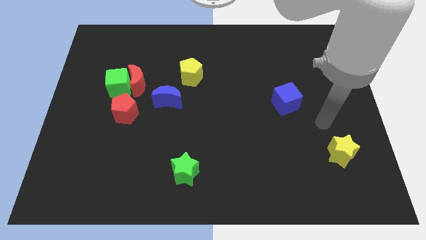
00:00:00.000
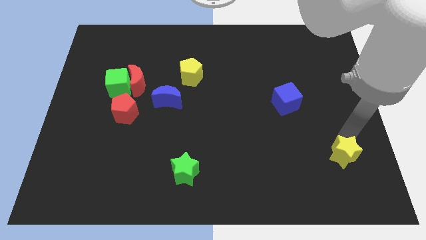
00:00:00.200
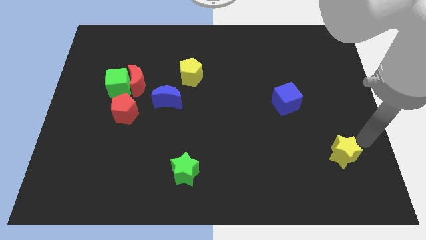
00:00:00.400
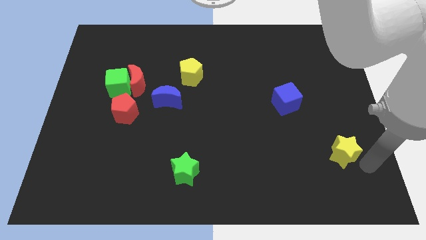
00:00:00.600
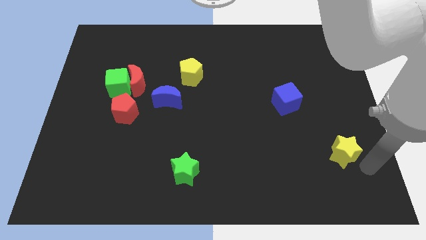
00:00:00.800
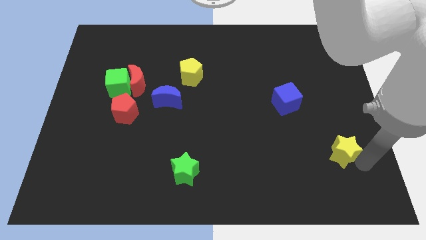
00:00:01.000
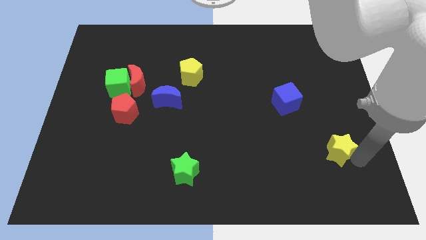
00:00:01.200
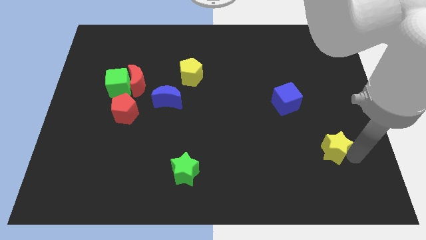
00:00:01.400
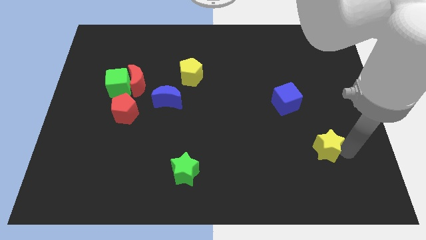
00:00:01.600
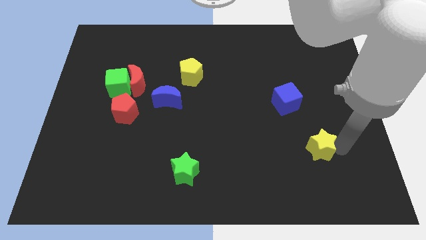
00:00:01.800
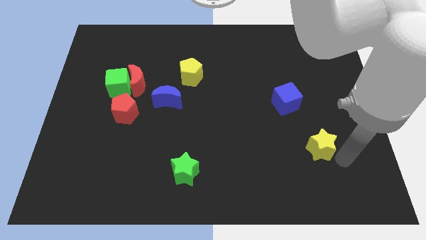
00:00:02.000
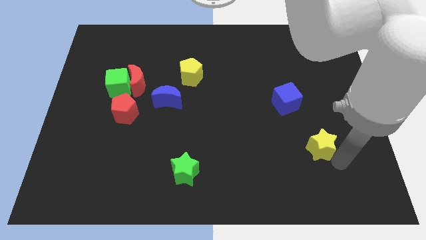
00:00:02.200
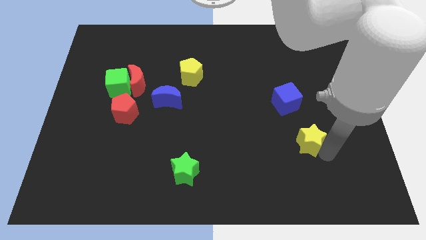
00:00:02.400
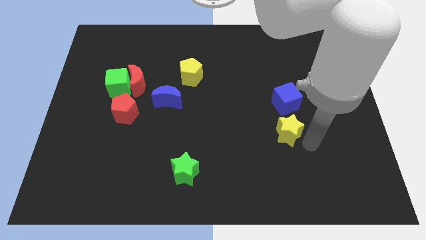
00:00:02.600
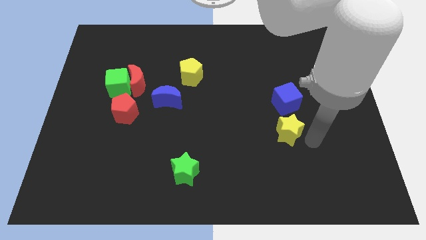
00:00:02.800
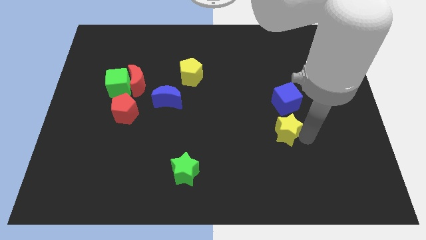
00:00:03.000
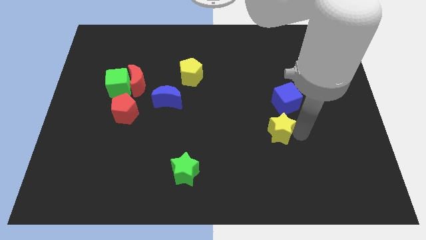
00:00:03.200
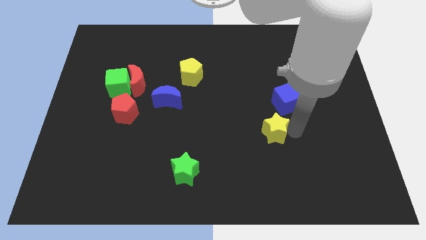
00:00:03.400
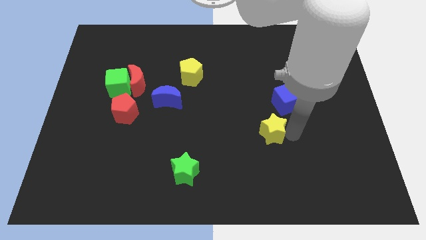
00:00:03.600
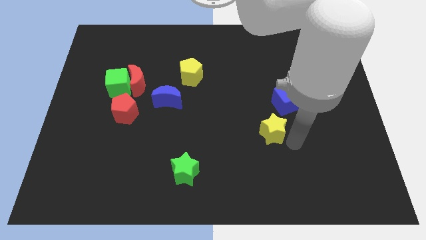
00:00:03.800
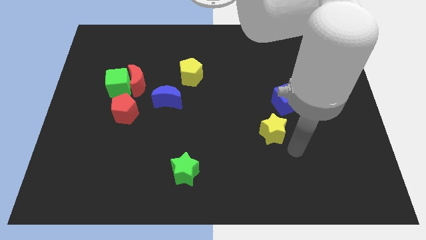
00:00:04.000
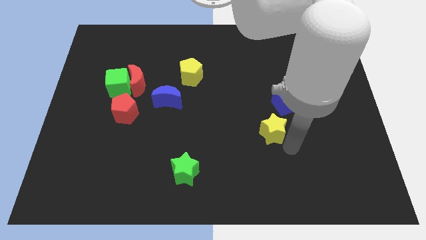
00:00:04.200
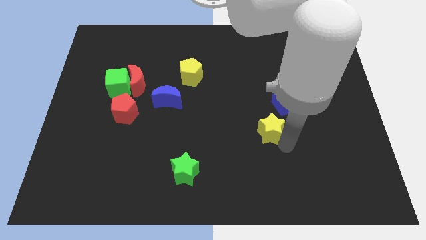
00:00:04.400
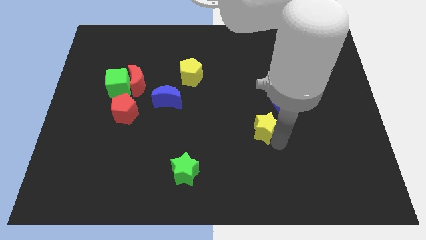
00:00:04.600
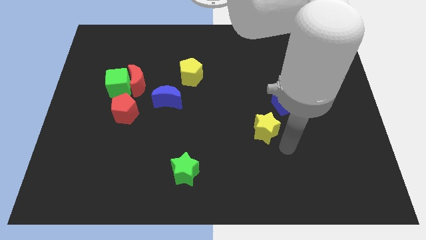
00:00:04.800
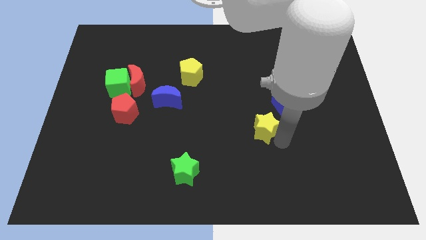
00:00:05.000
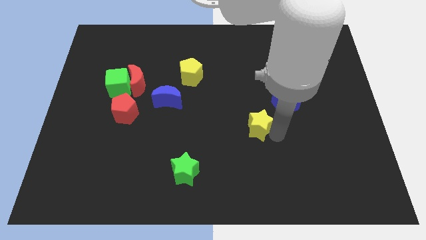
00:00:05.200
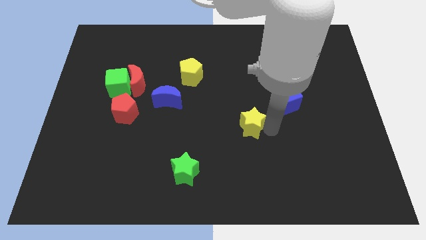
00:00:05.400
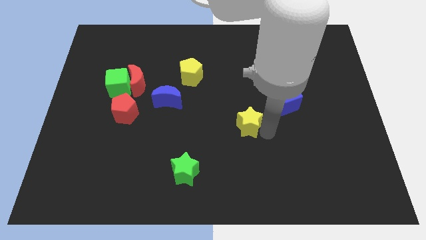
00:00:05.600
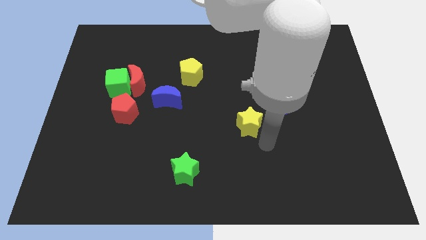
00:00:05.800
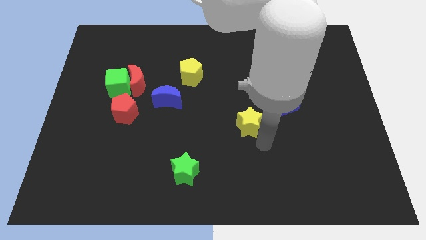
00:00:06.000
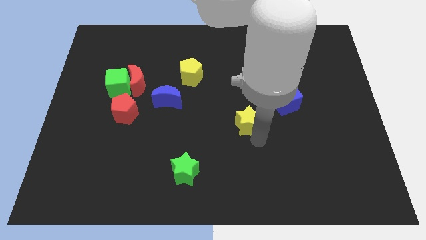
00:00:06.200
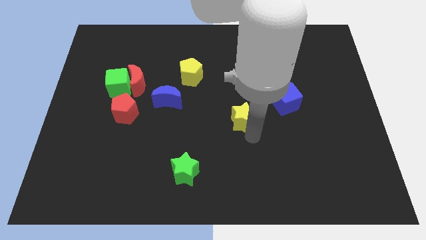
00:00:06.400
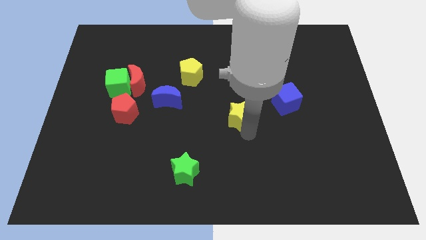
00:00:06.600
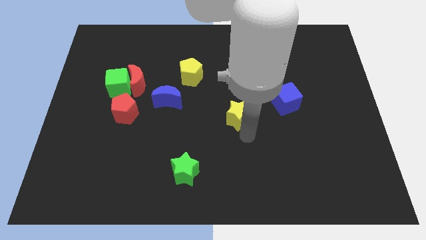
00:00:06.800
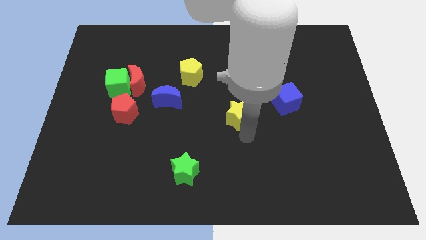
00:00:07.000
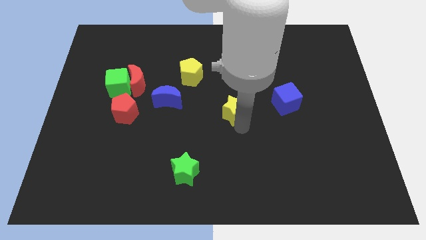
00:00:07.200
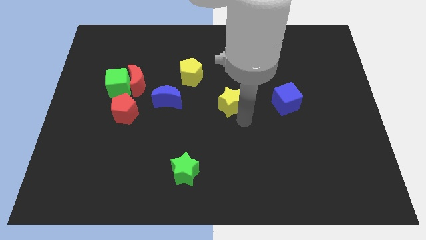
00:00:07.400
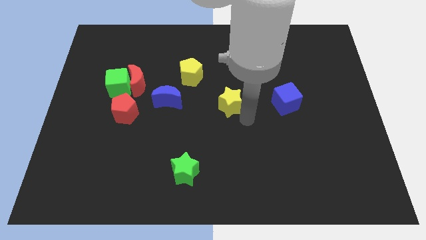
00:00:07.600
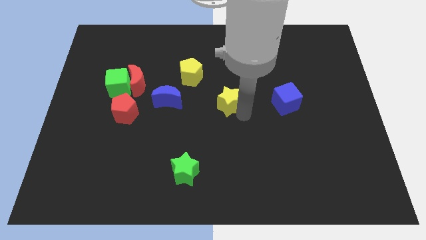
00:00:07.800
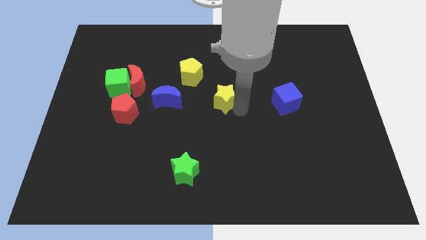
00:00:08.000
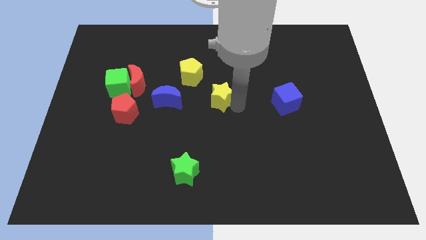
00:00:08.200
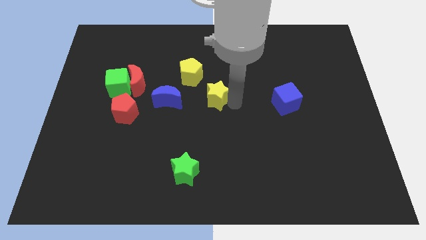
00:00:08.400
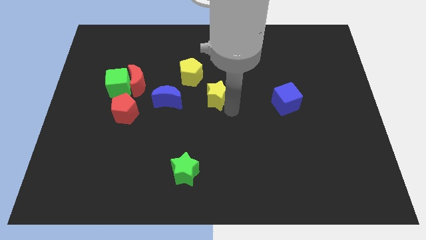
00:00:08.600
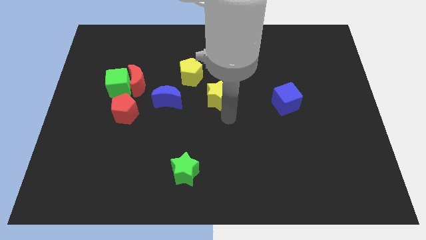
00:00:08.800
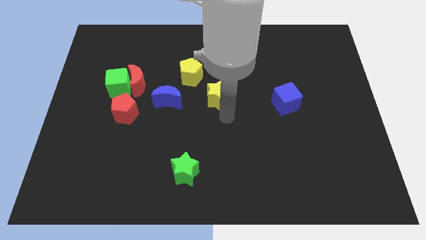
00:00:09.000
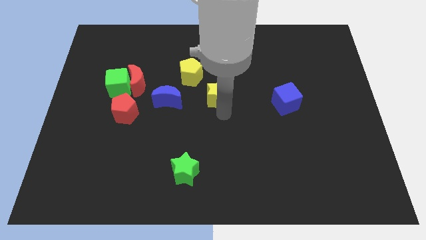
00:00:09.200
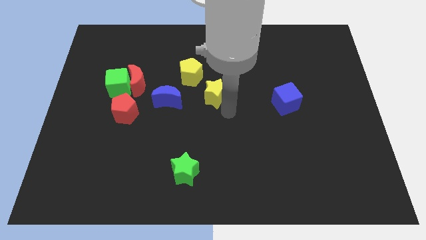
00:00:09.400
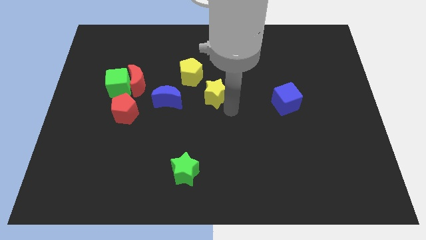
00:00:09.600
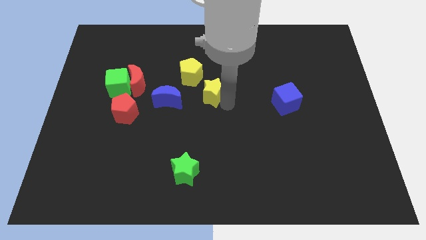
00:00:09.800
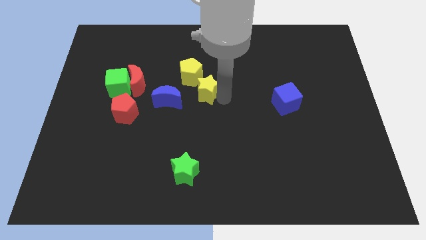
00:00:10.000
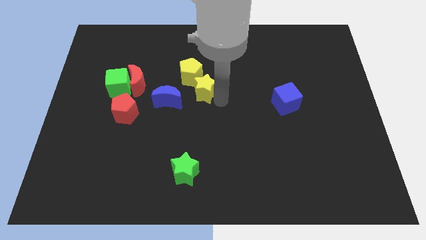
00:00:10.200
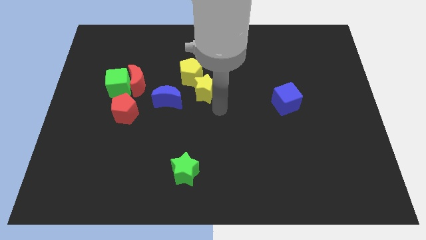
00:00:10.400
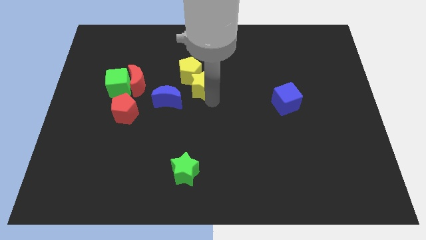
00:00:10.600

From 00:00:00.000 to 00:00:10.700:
push the yellow star close to the yellow pentagon

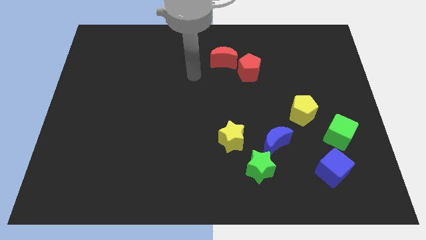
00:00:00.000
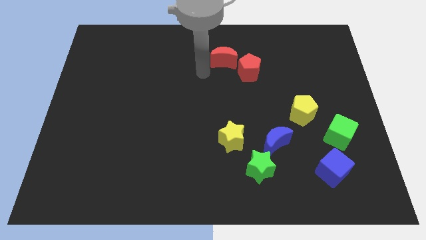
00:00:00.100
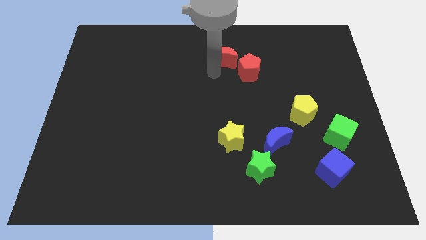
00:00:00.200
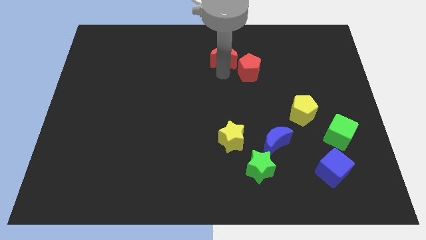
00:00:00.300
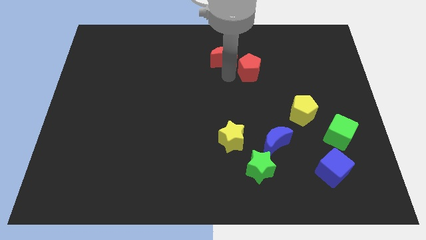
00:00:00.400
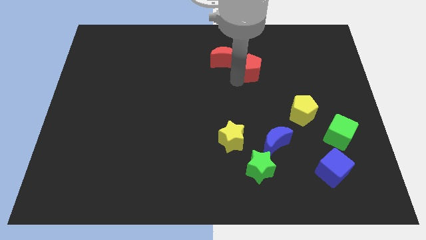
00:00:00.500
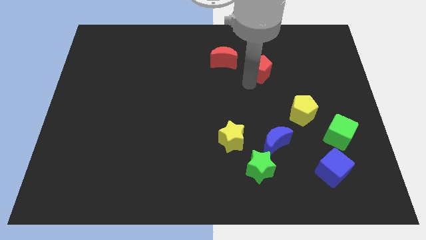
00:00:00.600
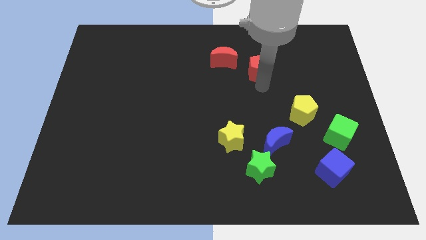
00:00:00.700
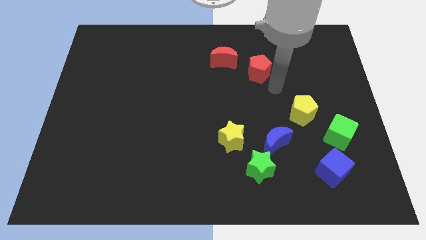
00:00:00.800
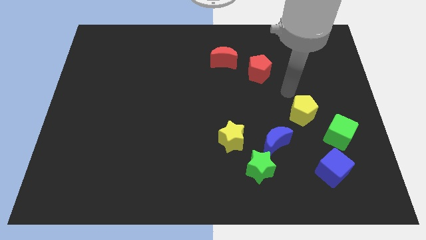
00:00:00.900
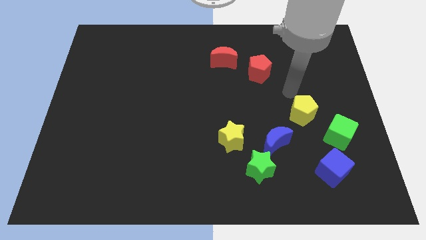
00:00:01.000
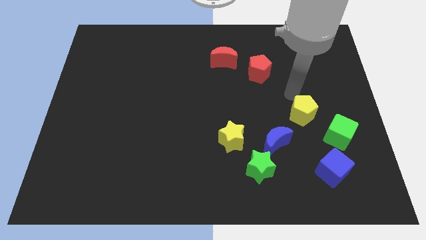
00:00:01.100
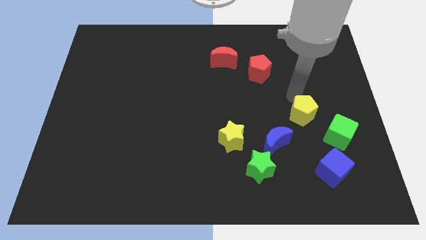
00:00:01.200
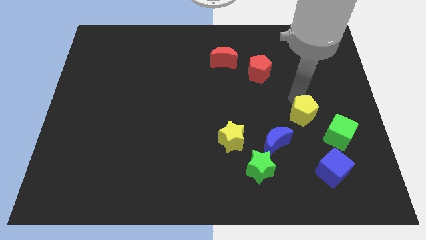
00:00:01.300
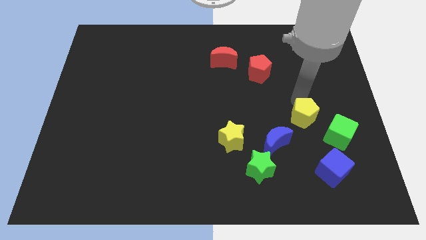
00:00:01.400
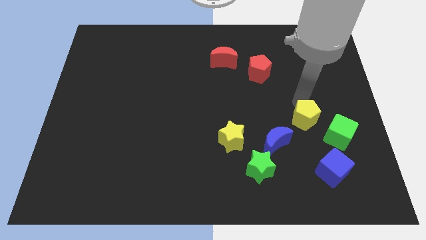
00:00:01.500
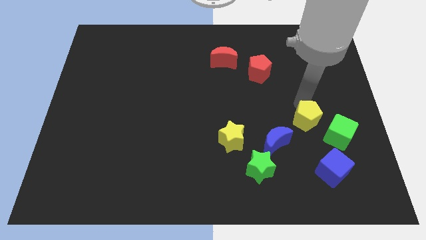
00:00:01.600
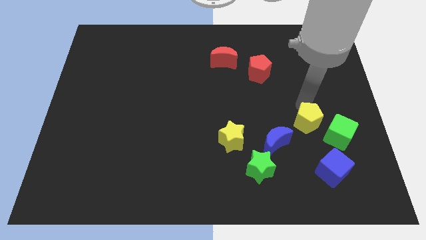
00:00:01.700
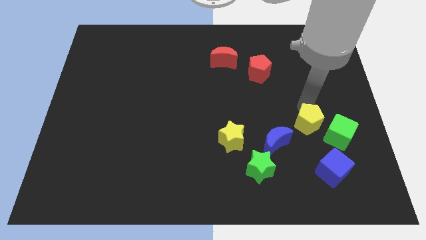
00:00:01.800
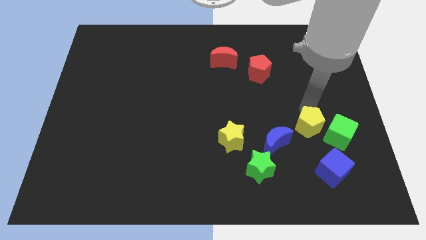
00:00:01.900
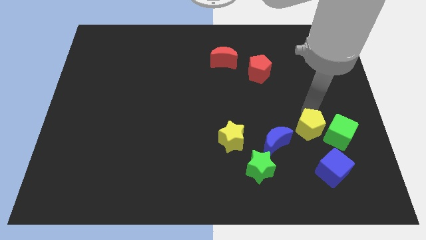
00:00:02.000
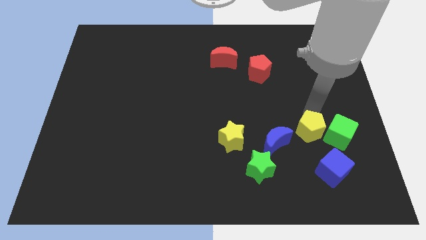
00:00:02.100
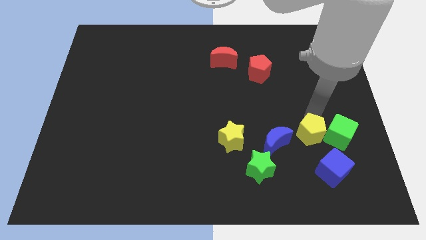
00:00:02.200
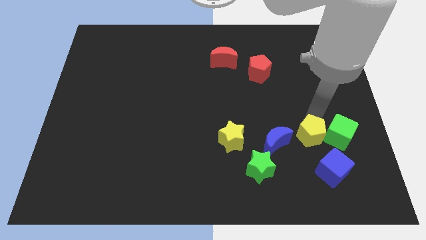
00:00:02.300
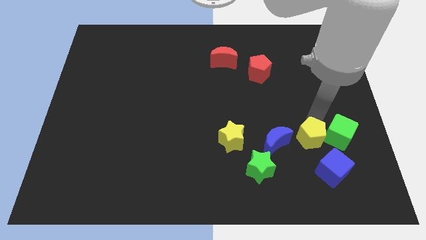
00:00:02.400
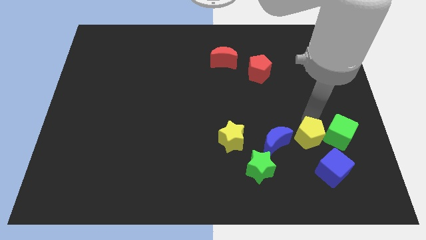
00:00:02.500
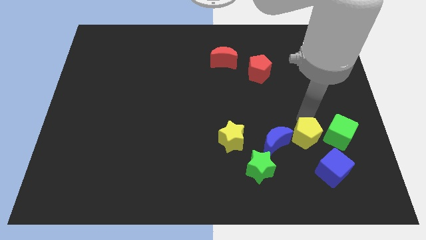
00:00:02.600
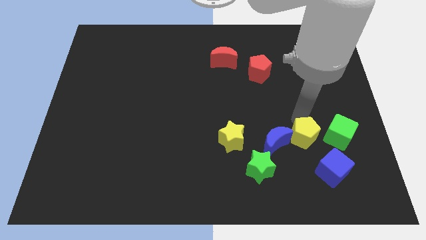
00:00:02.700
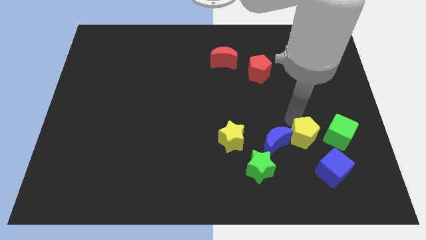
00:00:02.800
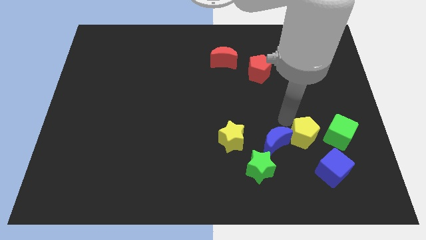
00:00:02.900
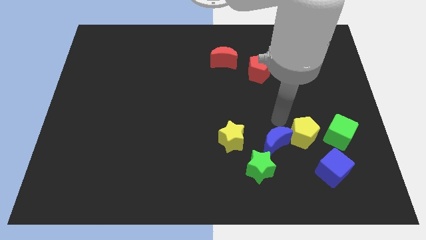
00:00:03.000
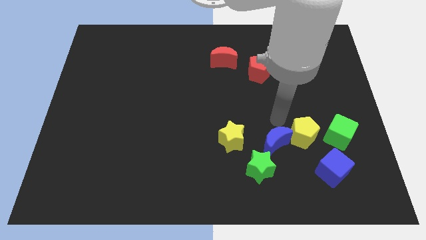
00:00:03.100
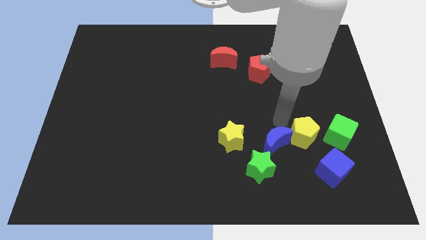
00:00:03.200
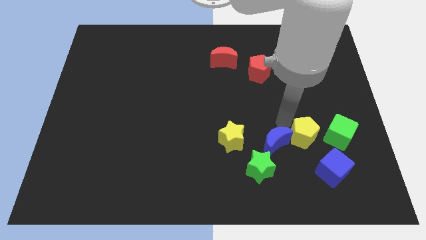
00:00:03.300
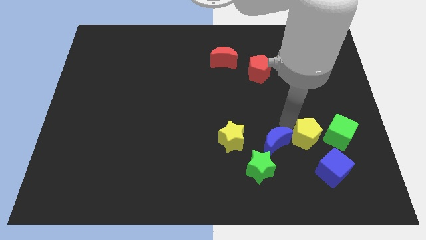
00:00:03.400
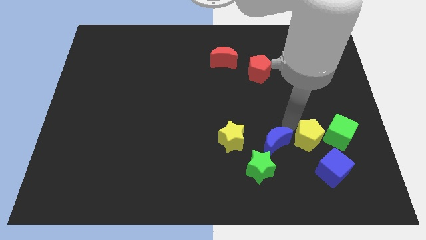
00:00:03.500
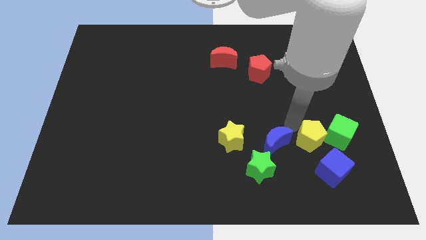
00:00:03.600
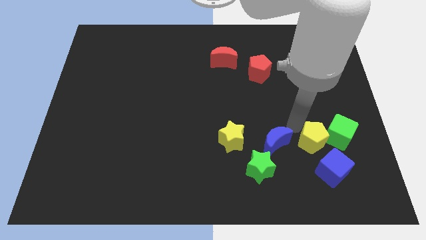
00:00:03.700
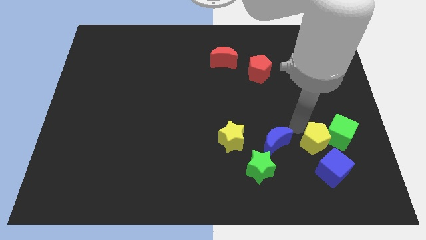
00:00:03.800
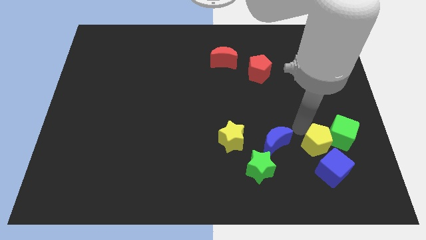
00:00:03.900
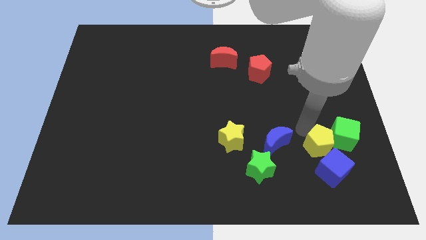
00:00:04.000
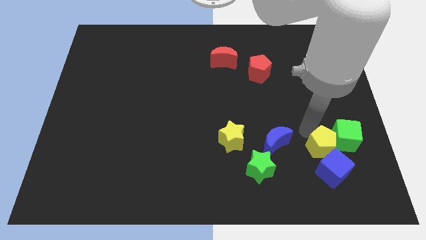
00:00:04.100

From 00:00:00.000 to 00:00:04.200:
move the yellow pentagon towards the blue cube
